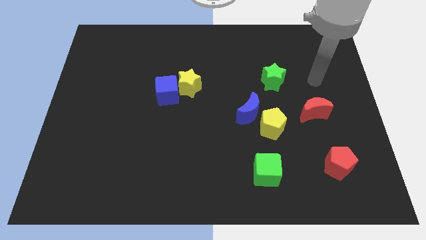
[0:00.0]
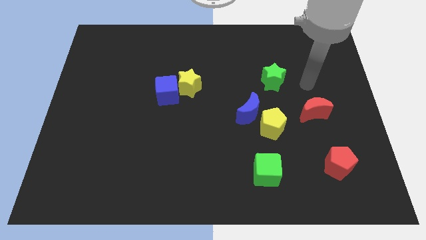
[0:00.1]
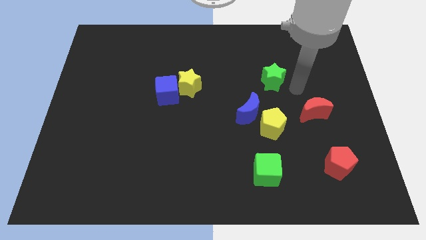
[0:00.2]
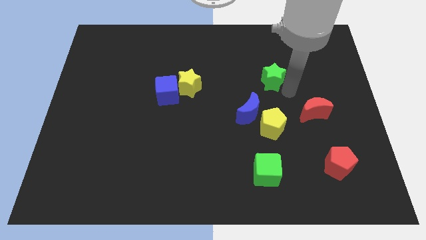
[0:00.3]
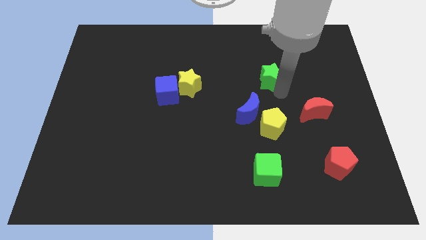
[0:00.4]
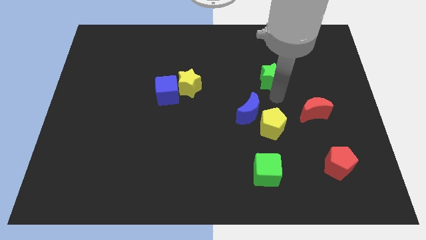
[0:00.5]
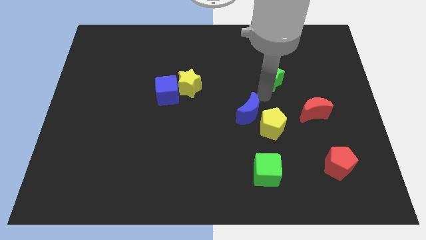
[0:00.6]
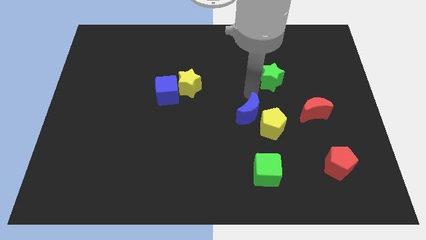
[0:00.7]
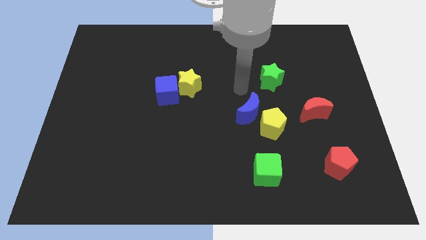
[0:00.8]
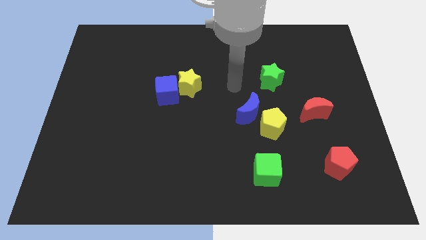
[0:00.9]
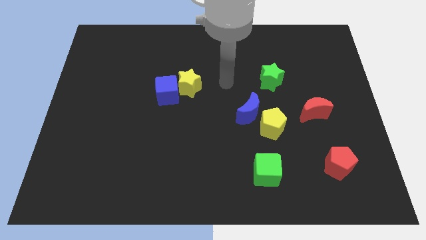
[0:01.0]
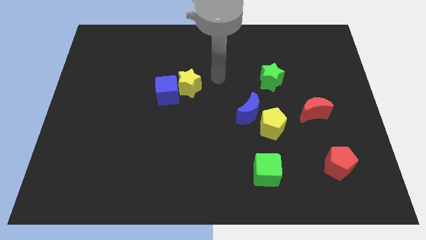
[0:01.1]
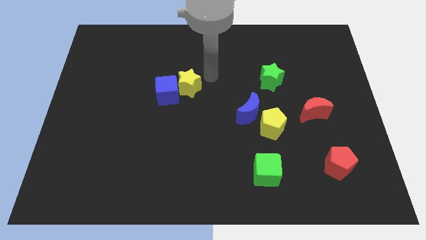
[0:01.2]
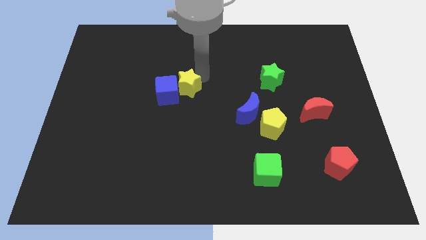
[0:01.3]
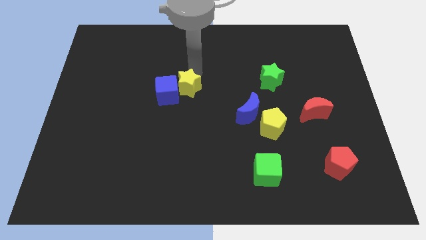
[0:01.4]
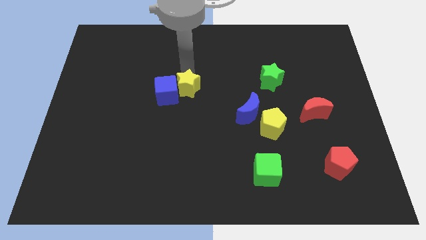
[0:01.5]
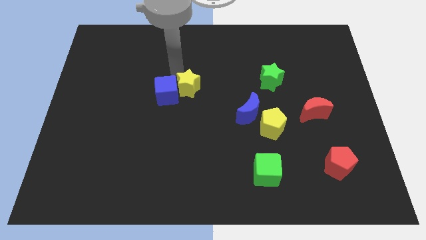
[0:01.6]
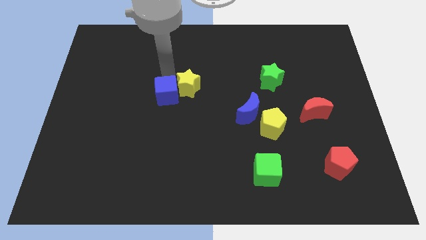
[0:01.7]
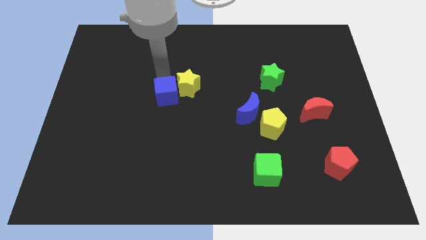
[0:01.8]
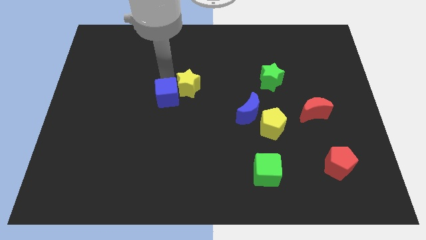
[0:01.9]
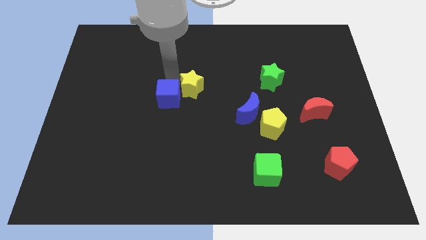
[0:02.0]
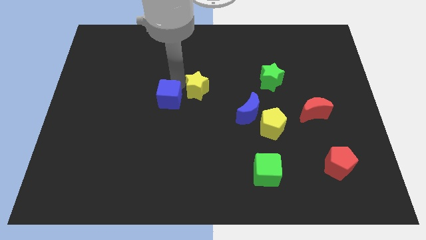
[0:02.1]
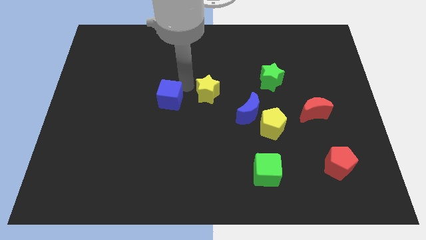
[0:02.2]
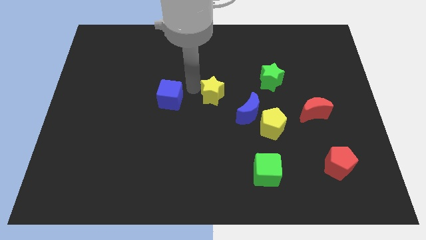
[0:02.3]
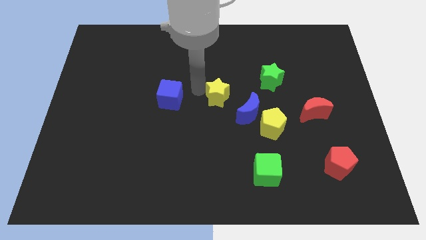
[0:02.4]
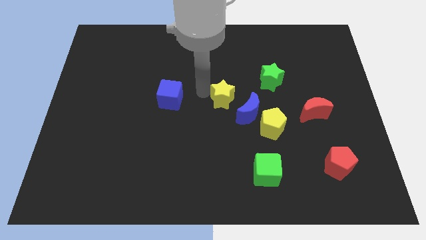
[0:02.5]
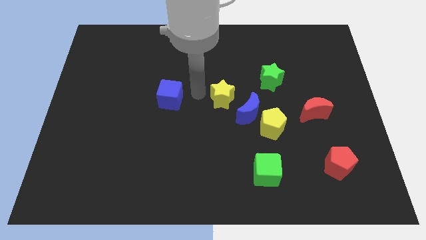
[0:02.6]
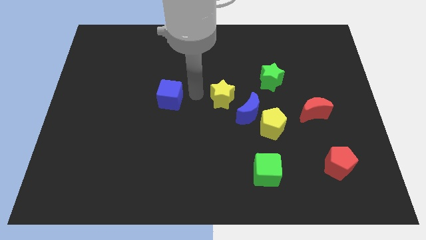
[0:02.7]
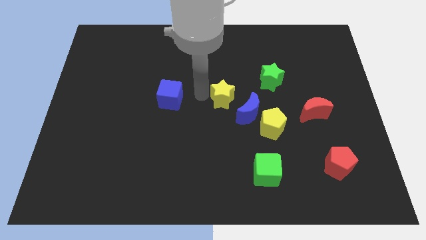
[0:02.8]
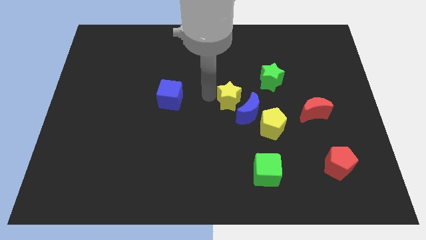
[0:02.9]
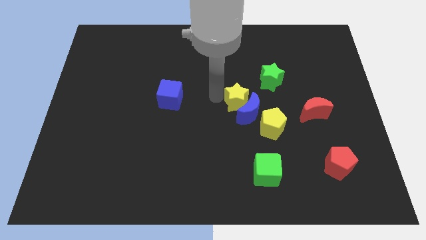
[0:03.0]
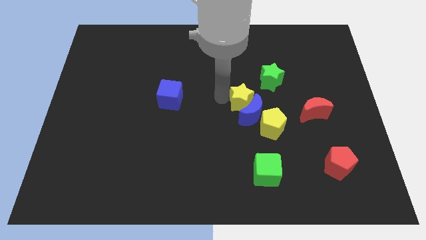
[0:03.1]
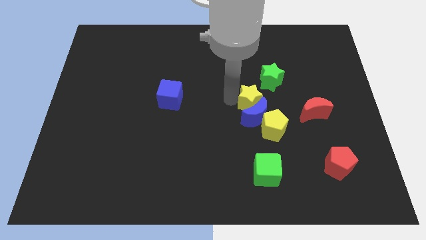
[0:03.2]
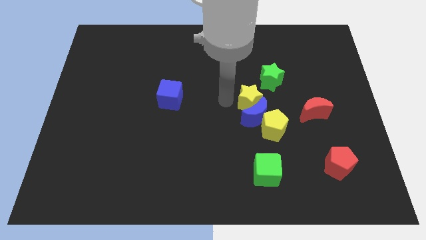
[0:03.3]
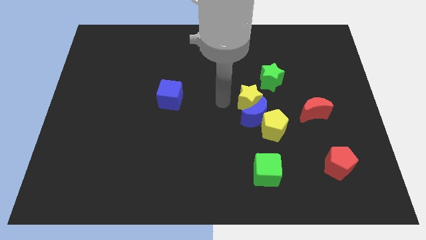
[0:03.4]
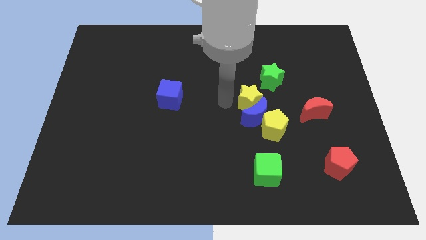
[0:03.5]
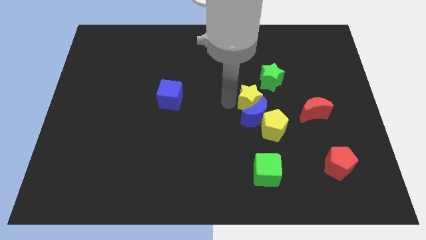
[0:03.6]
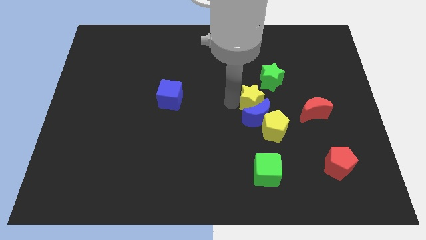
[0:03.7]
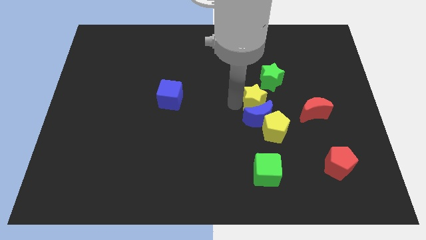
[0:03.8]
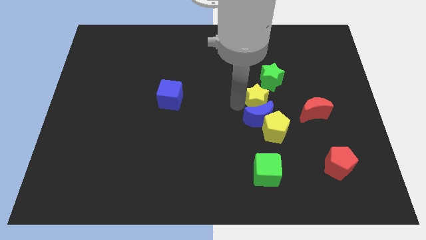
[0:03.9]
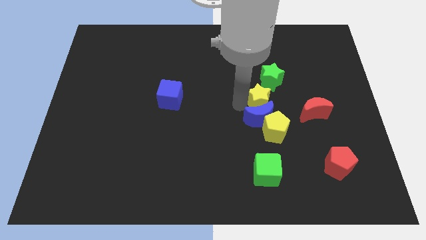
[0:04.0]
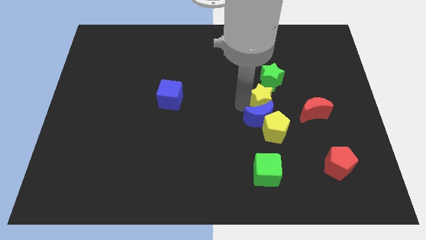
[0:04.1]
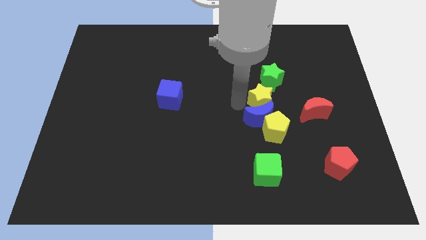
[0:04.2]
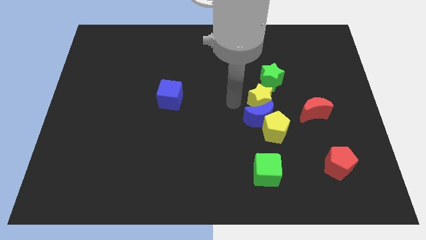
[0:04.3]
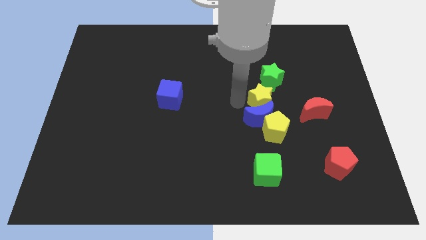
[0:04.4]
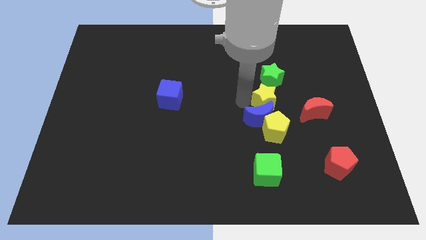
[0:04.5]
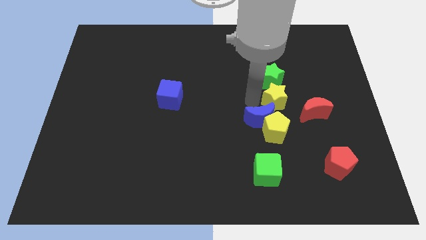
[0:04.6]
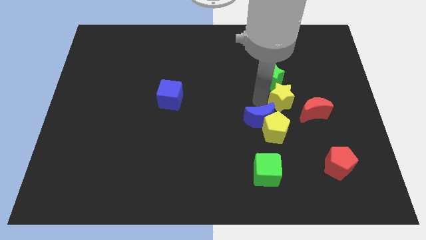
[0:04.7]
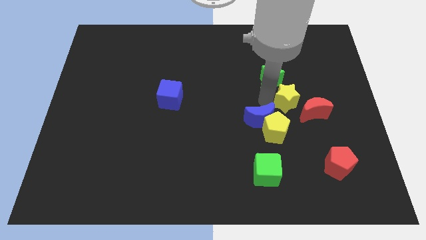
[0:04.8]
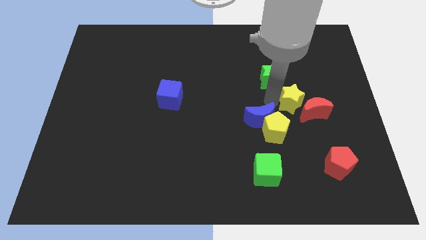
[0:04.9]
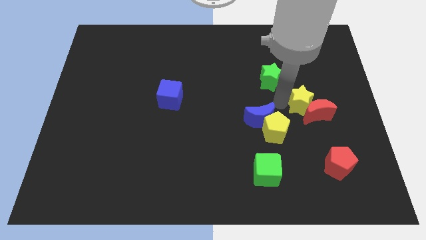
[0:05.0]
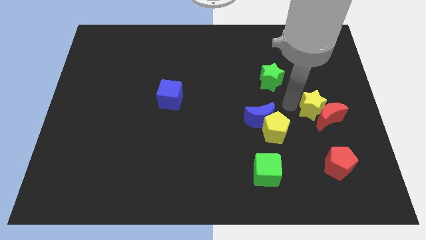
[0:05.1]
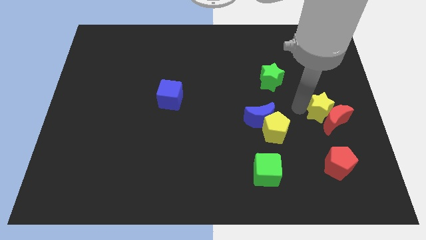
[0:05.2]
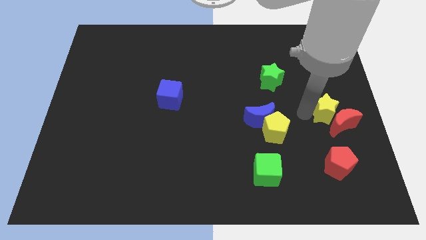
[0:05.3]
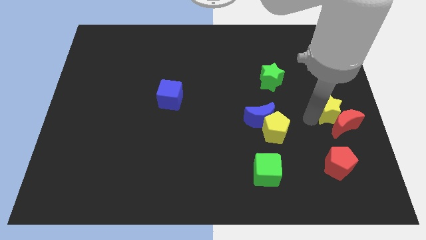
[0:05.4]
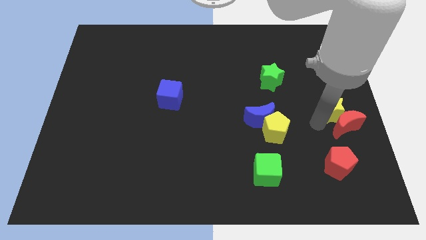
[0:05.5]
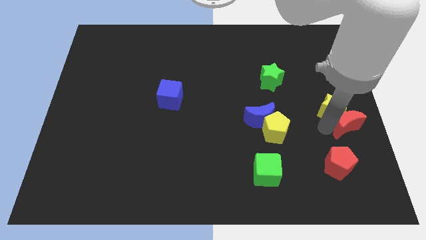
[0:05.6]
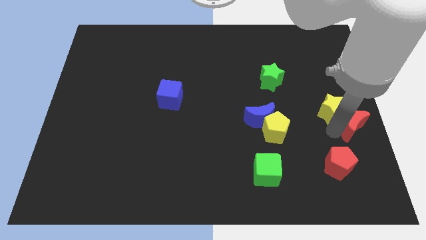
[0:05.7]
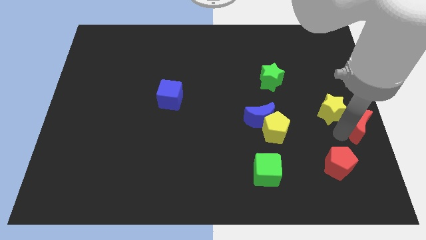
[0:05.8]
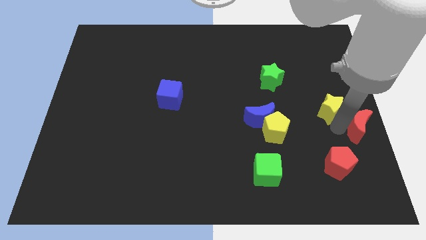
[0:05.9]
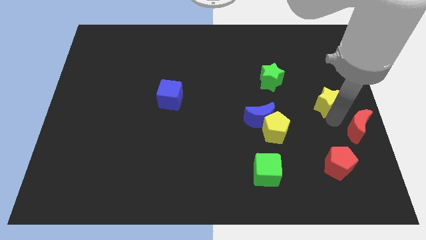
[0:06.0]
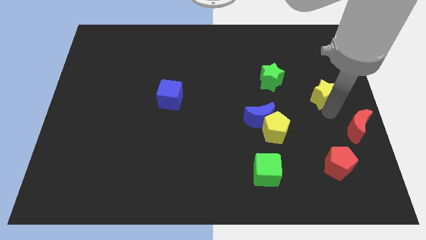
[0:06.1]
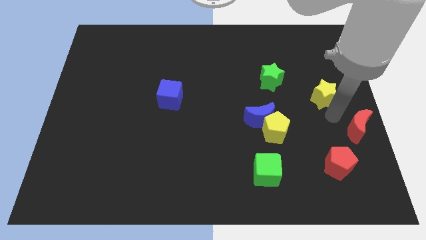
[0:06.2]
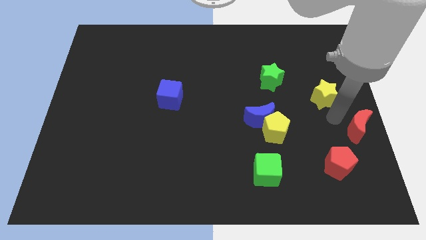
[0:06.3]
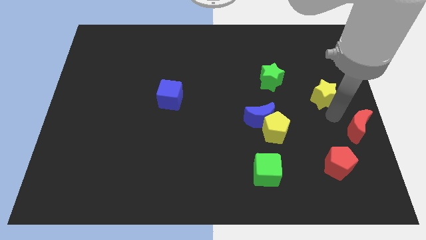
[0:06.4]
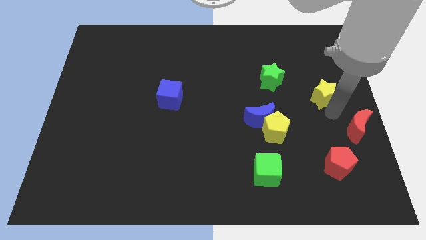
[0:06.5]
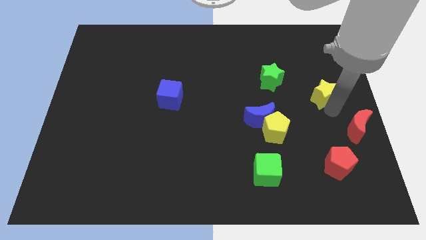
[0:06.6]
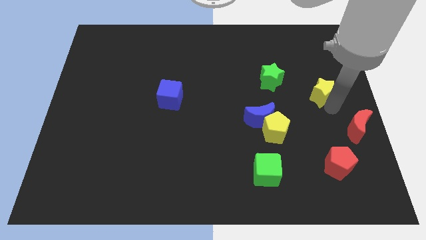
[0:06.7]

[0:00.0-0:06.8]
put the yellow star to the right side of the green star
